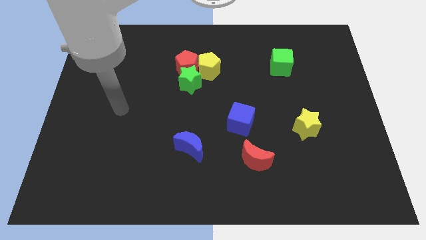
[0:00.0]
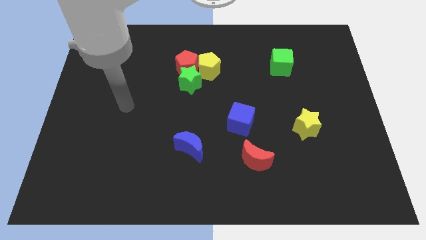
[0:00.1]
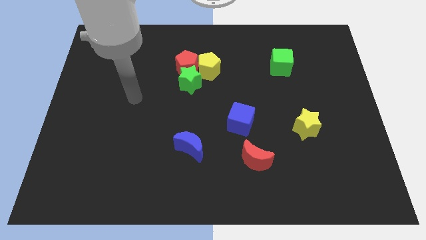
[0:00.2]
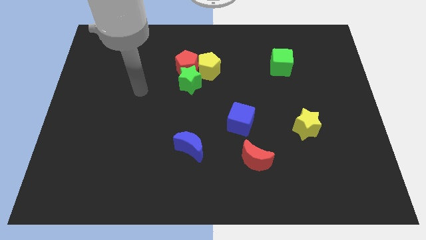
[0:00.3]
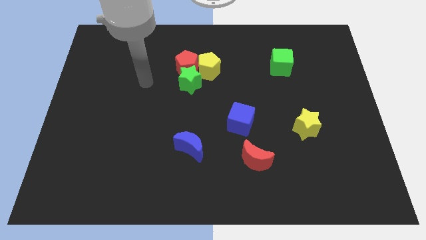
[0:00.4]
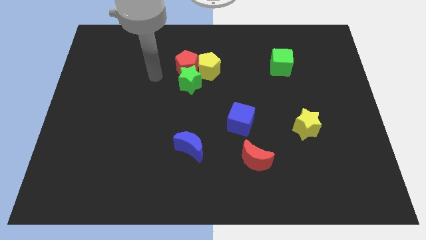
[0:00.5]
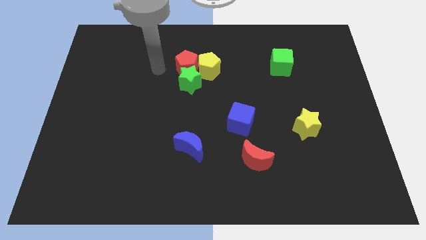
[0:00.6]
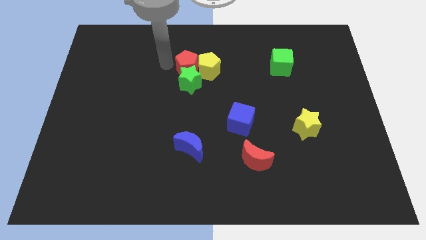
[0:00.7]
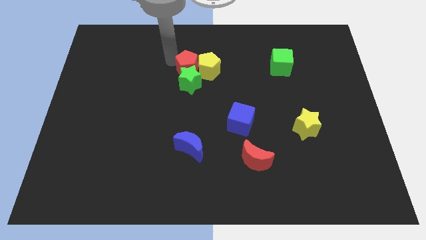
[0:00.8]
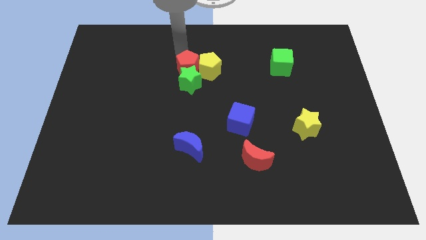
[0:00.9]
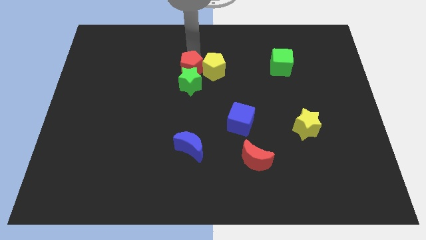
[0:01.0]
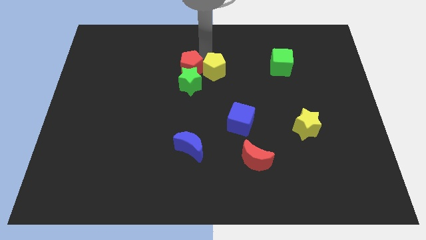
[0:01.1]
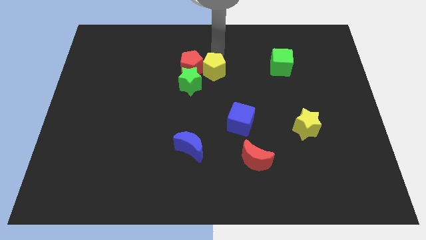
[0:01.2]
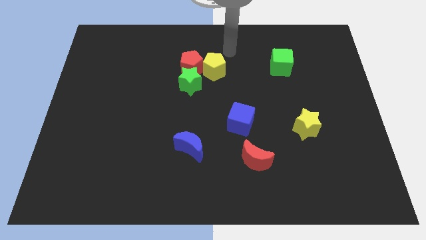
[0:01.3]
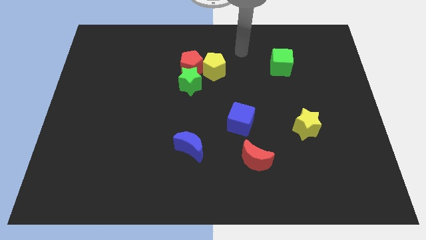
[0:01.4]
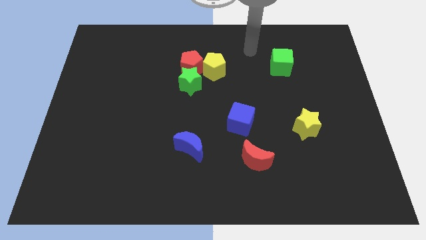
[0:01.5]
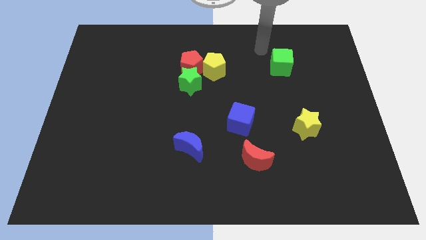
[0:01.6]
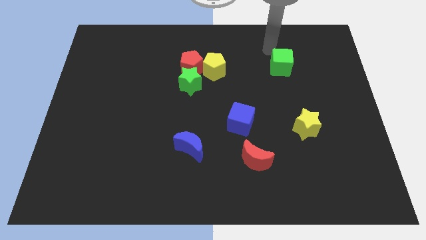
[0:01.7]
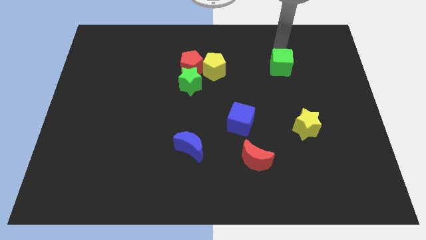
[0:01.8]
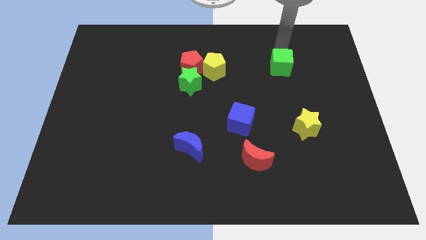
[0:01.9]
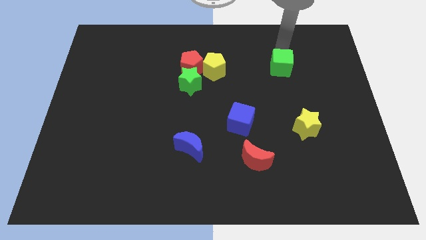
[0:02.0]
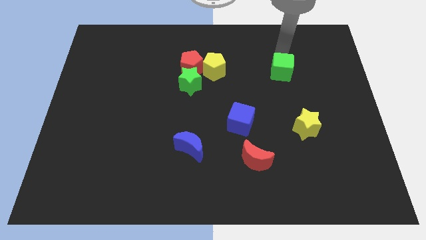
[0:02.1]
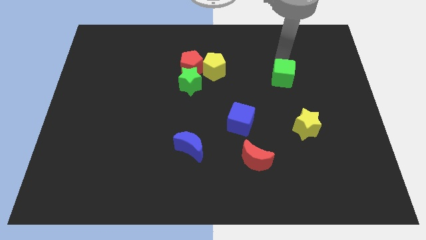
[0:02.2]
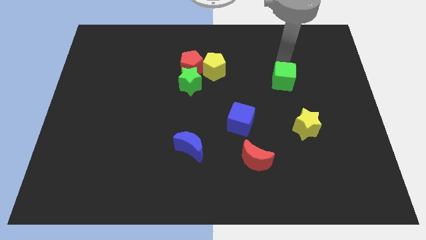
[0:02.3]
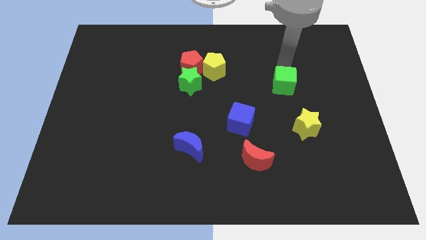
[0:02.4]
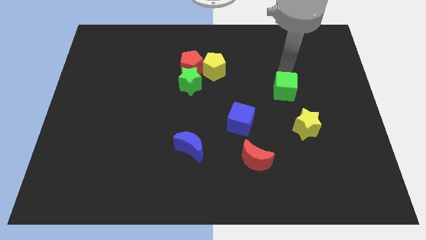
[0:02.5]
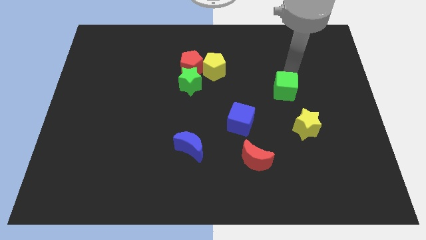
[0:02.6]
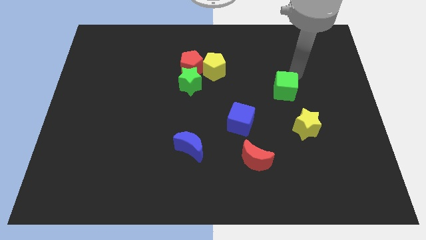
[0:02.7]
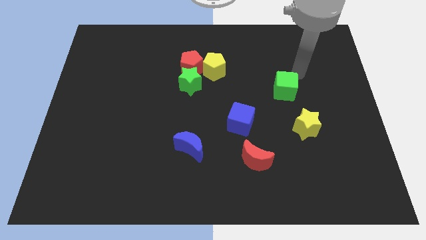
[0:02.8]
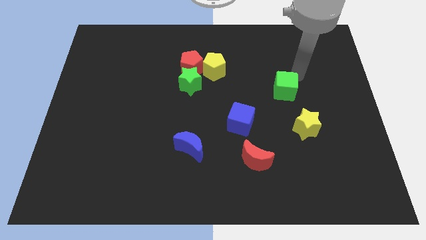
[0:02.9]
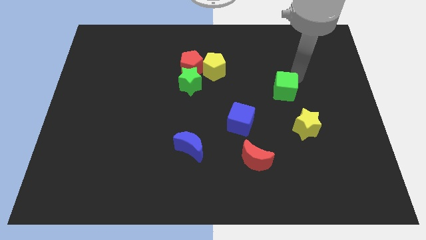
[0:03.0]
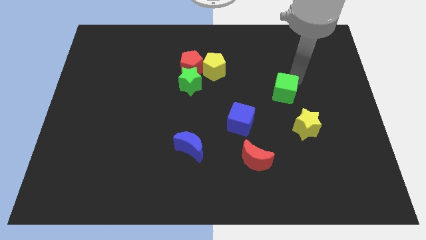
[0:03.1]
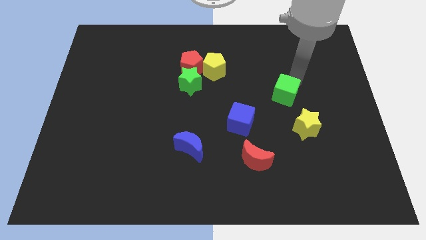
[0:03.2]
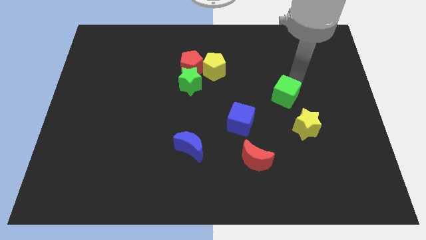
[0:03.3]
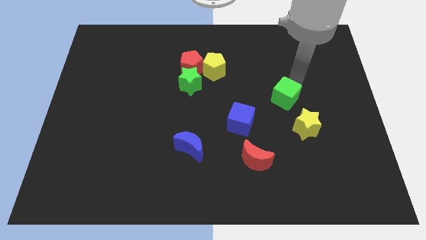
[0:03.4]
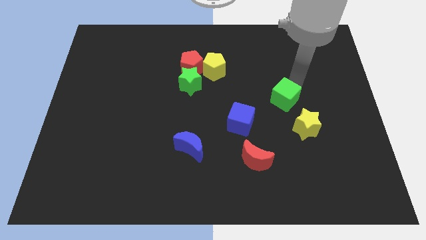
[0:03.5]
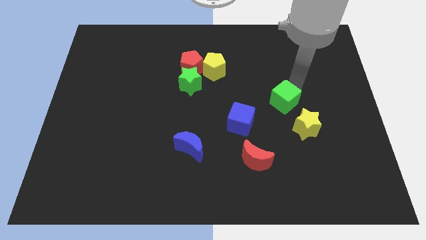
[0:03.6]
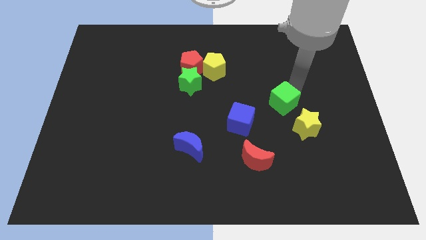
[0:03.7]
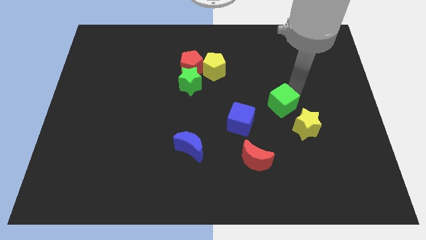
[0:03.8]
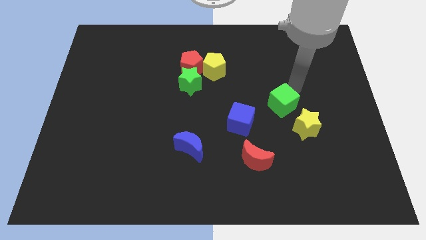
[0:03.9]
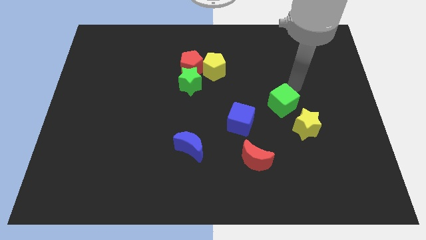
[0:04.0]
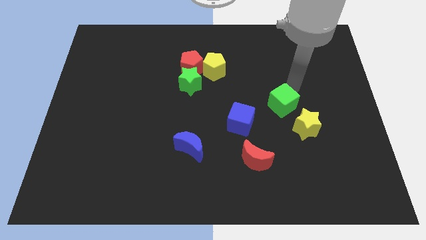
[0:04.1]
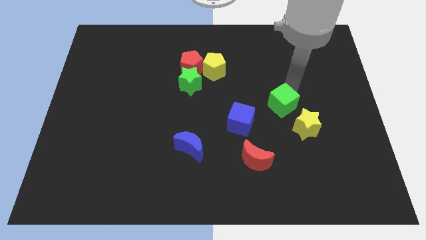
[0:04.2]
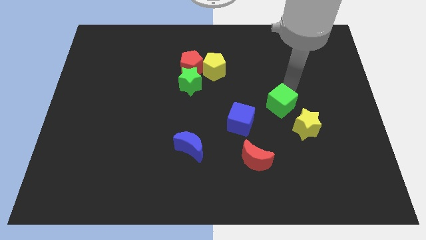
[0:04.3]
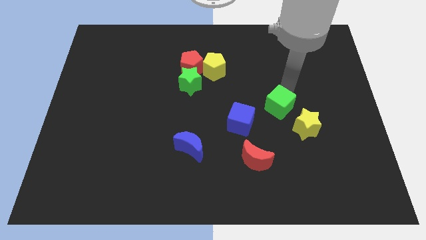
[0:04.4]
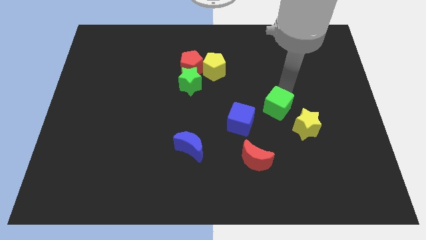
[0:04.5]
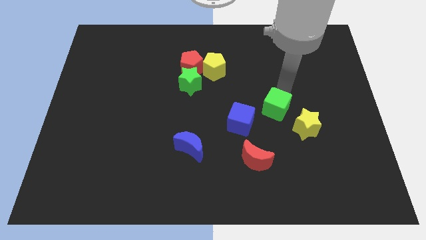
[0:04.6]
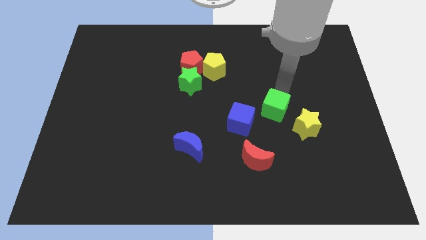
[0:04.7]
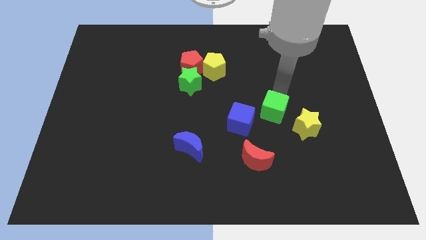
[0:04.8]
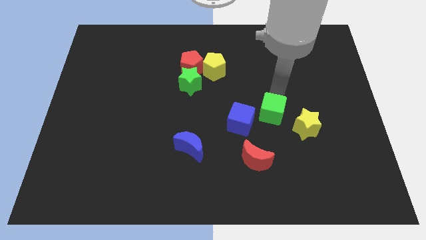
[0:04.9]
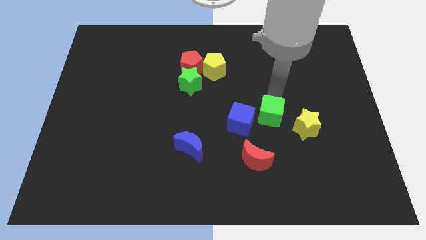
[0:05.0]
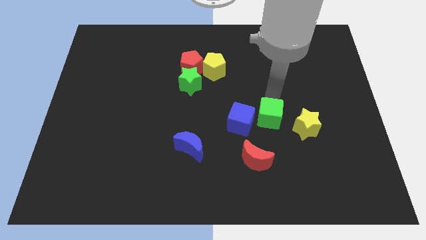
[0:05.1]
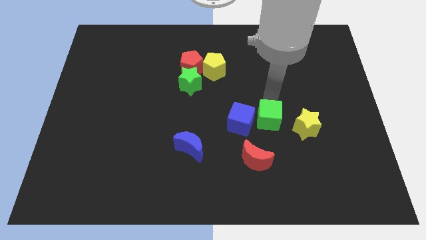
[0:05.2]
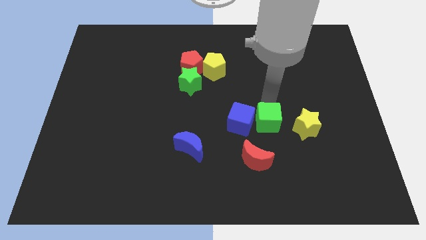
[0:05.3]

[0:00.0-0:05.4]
slide the green cube diagonally up and to the right of the red moon

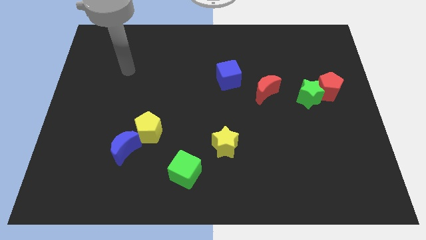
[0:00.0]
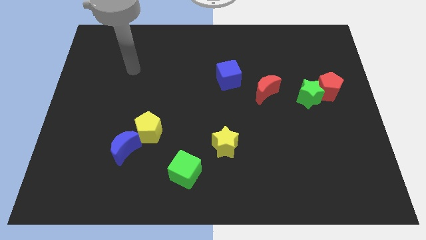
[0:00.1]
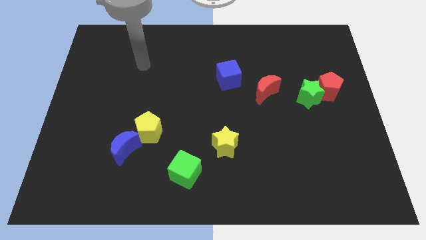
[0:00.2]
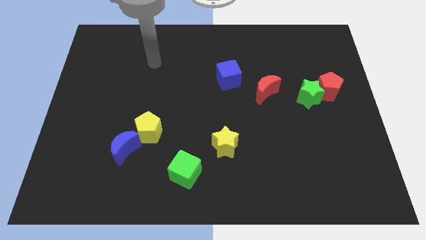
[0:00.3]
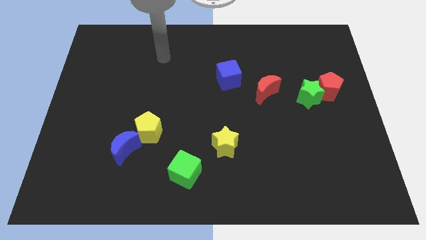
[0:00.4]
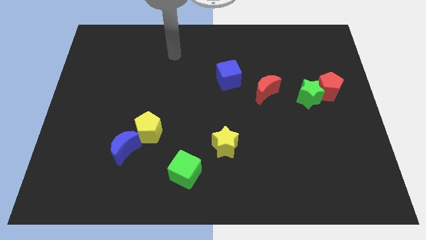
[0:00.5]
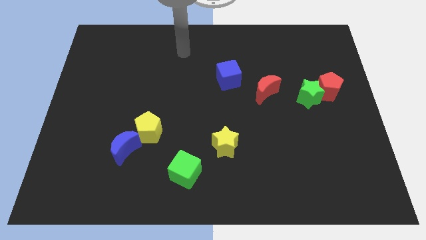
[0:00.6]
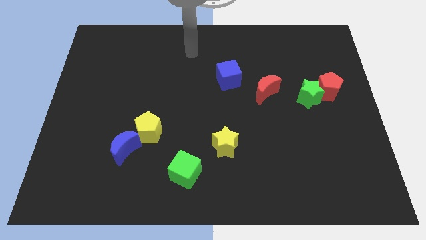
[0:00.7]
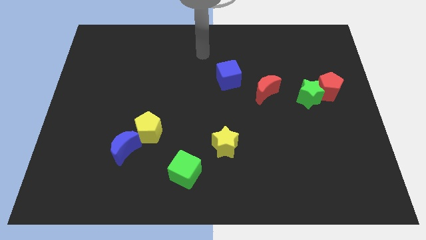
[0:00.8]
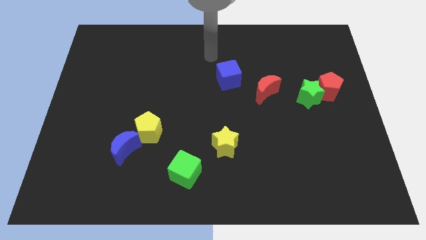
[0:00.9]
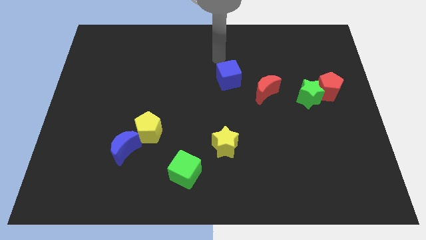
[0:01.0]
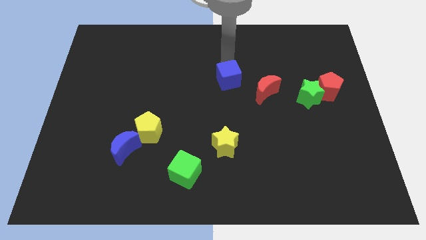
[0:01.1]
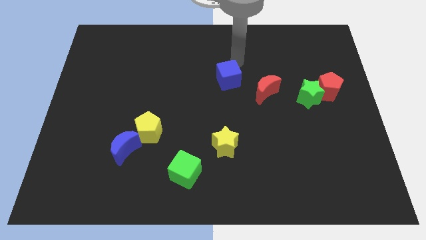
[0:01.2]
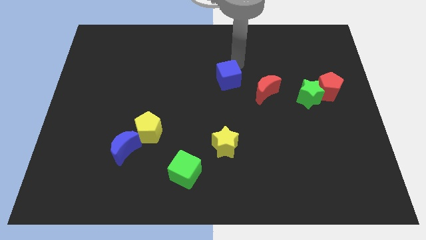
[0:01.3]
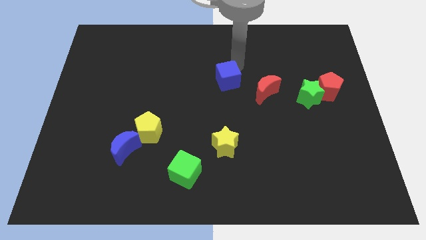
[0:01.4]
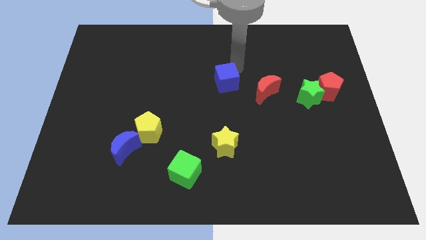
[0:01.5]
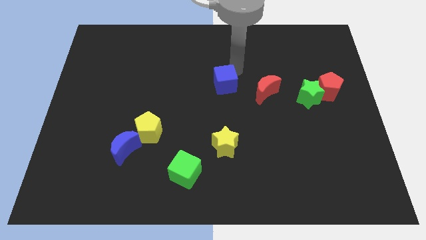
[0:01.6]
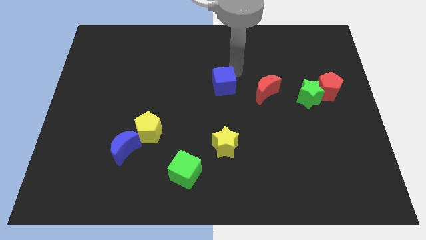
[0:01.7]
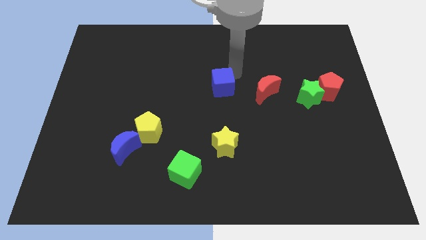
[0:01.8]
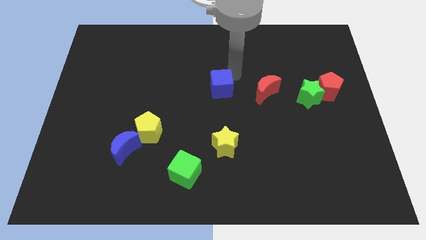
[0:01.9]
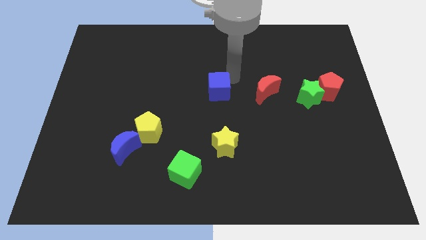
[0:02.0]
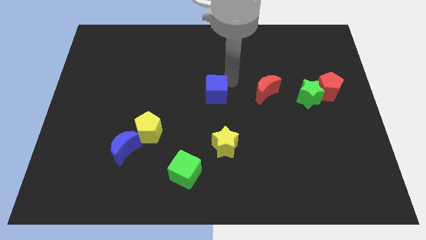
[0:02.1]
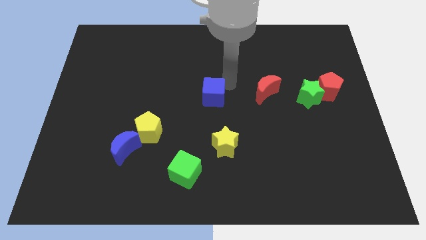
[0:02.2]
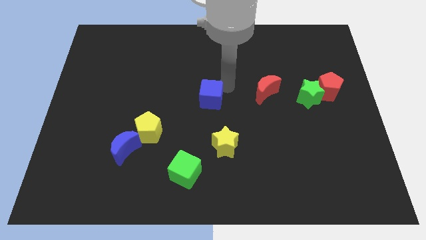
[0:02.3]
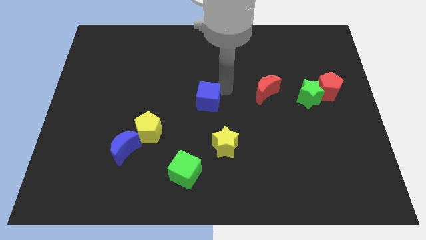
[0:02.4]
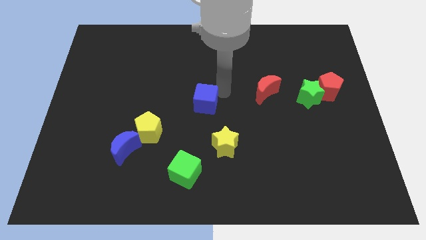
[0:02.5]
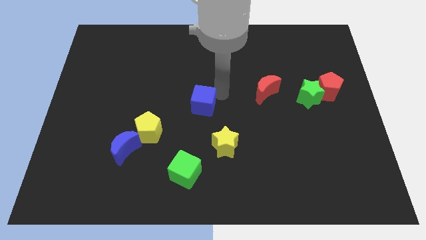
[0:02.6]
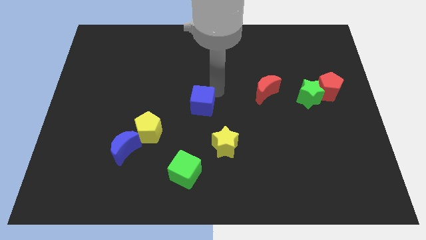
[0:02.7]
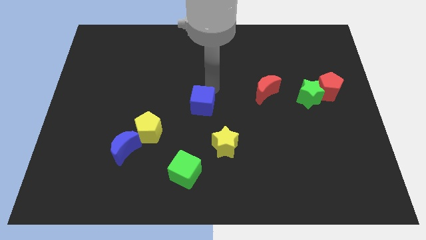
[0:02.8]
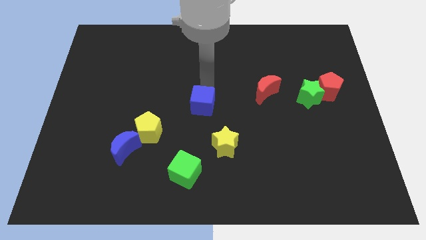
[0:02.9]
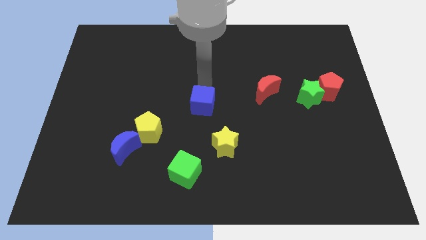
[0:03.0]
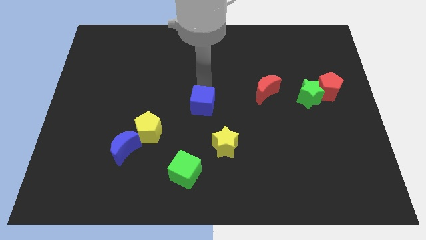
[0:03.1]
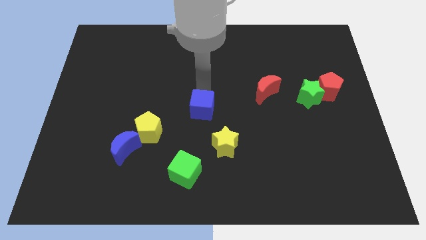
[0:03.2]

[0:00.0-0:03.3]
push the blue cube to the top left of the yellow star
